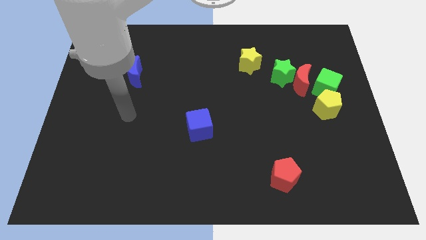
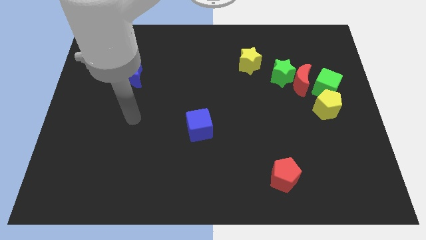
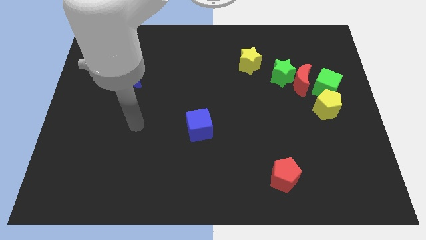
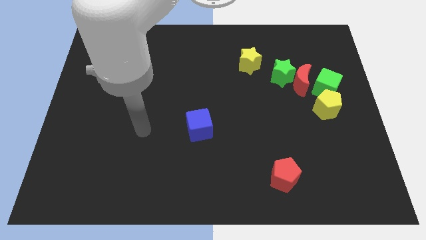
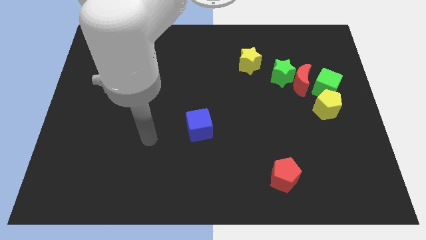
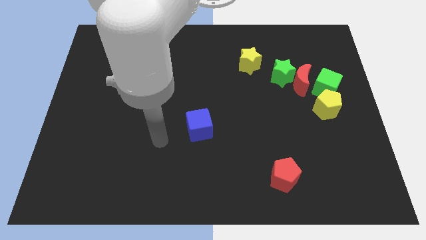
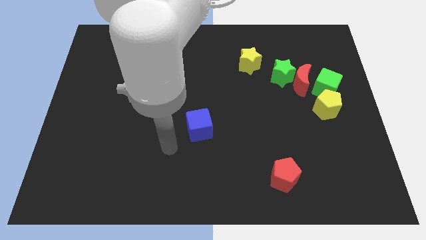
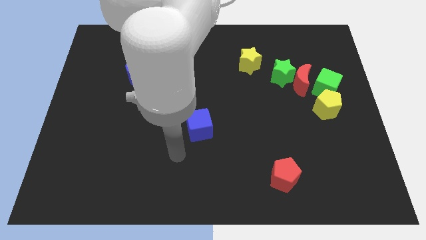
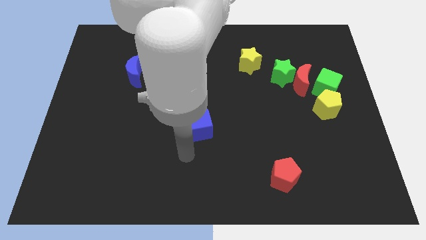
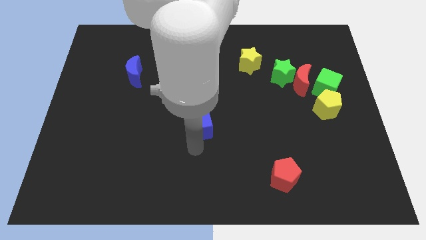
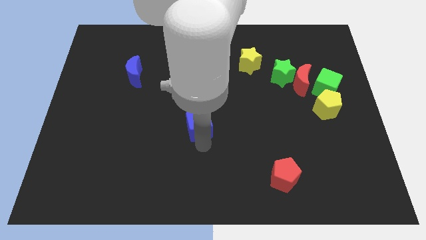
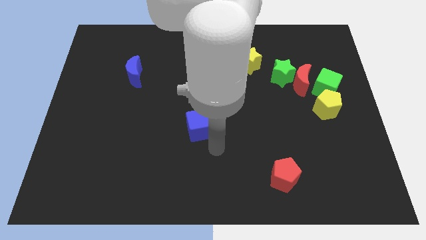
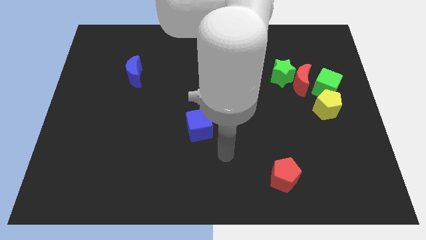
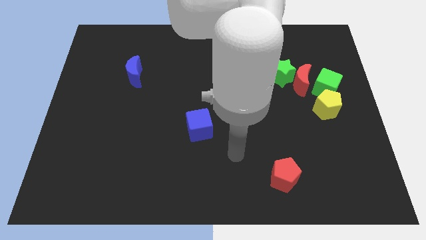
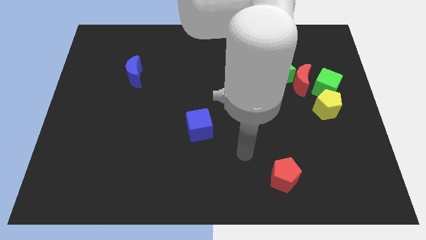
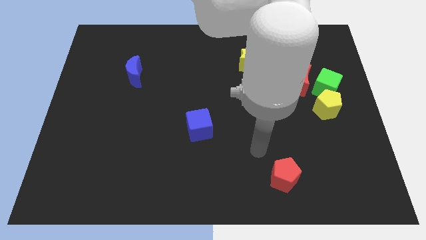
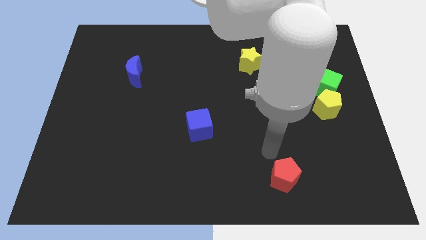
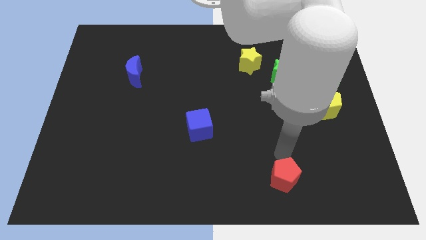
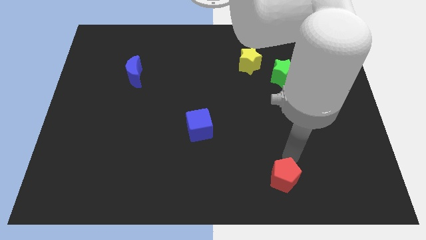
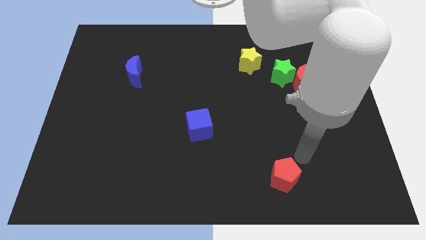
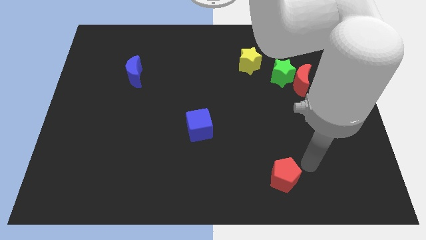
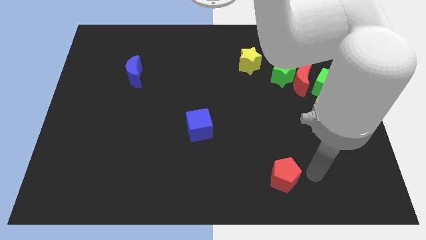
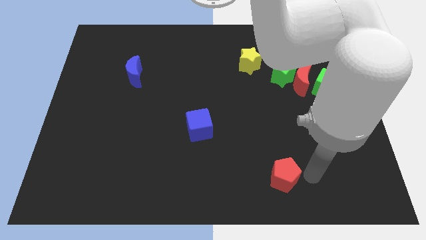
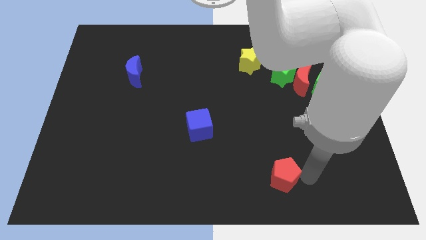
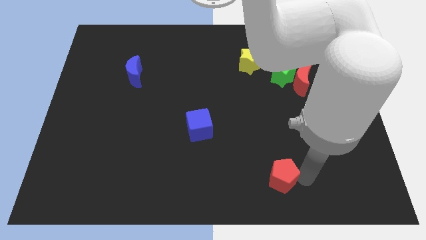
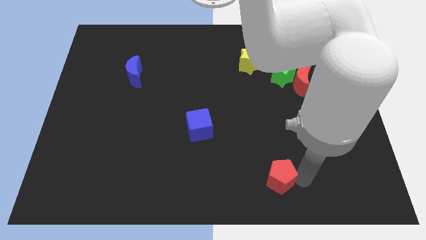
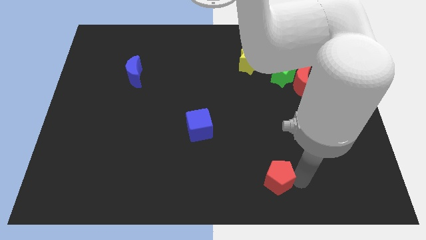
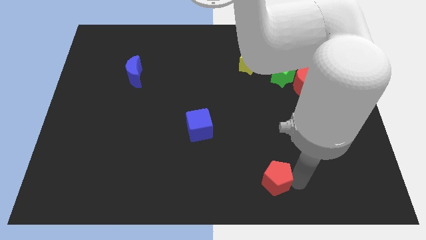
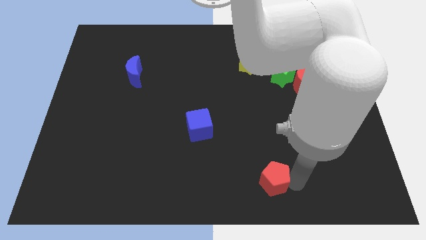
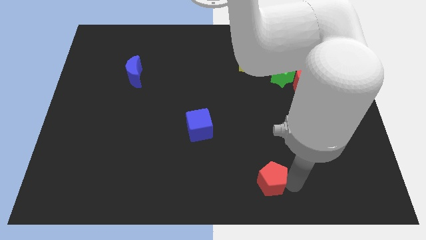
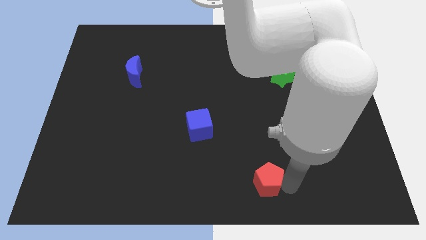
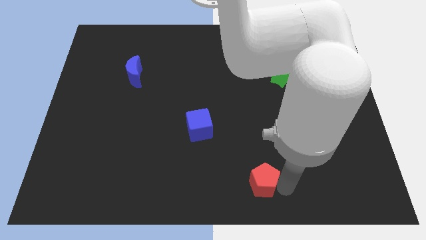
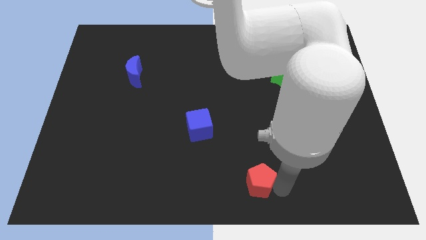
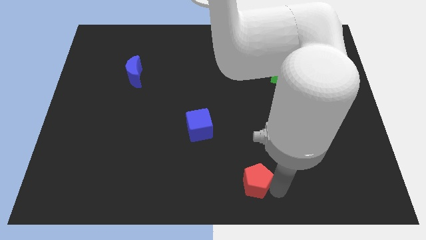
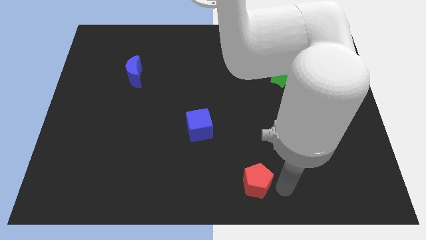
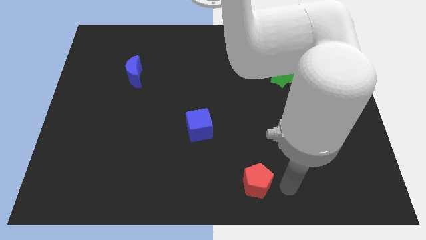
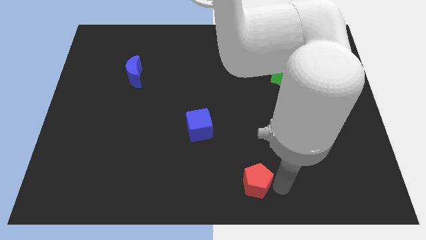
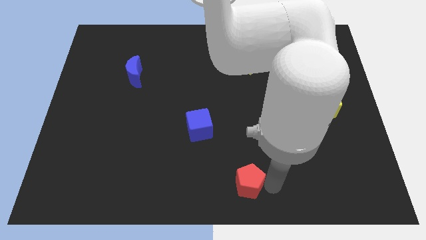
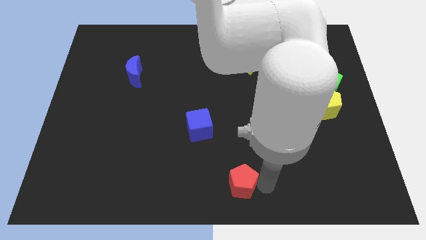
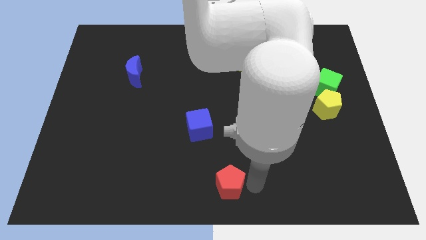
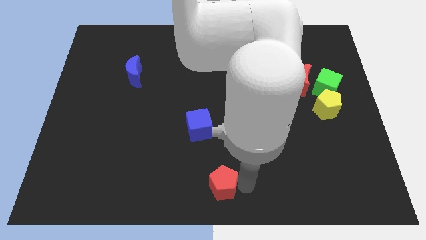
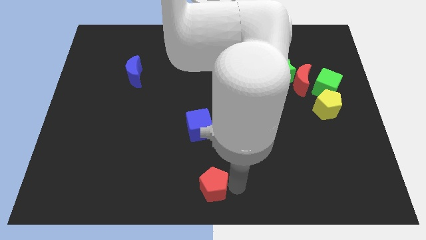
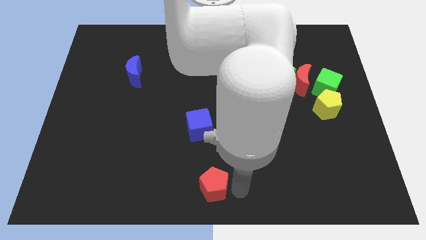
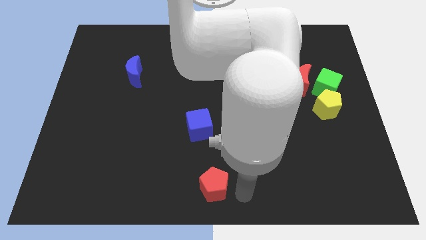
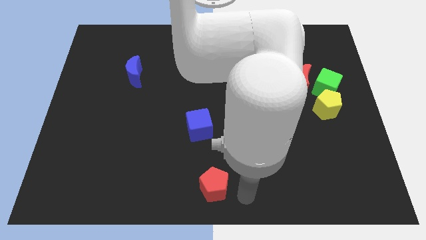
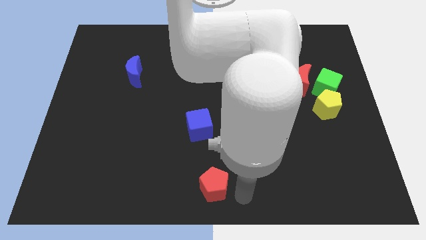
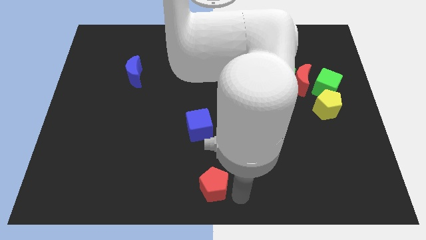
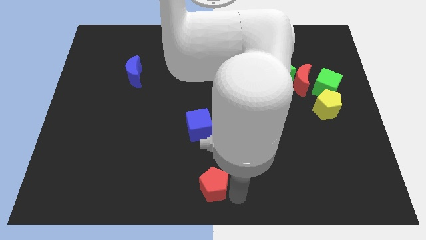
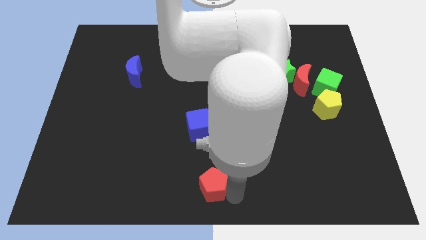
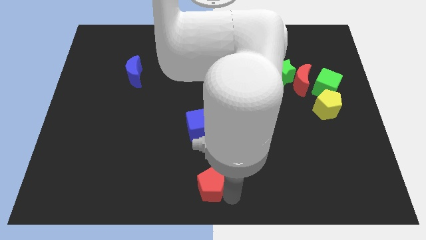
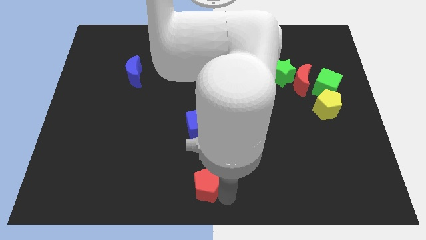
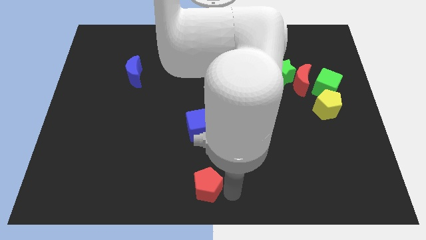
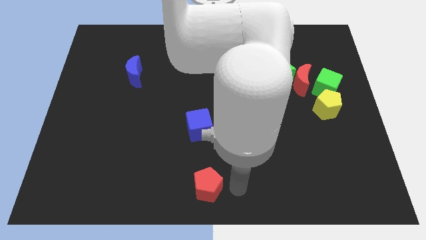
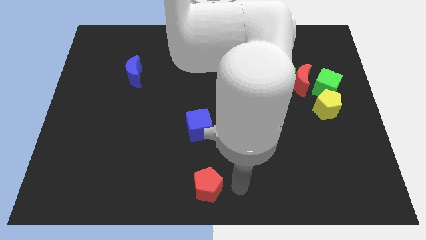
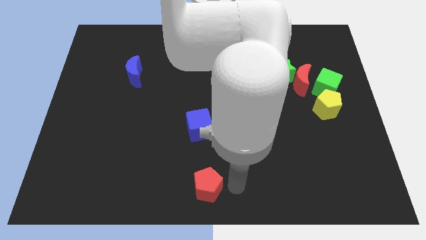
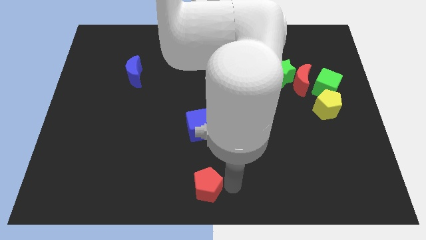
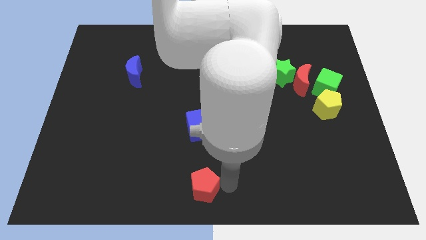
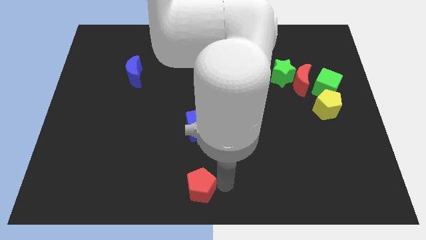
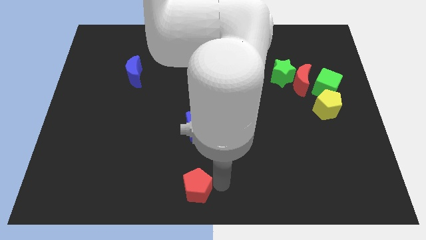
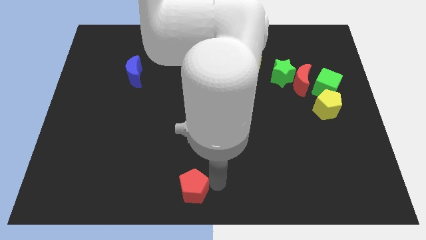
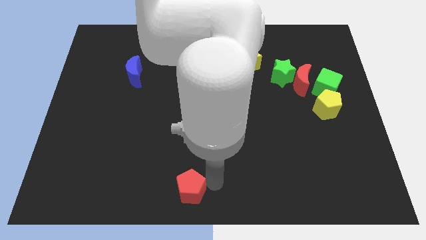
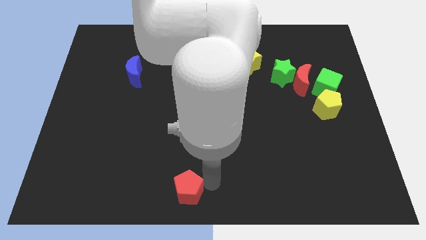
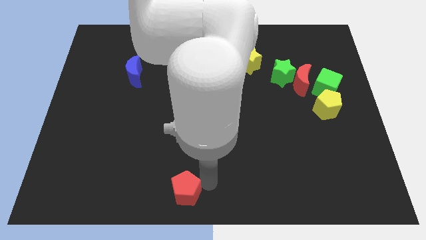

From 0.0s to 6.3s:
push the red pentagon left

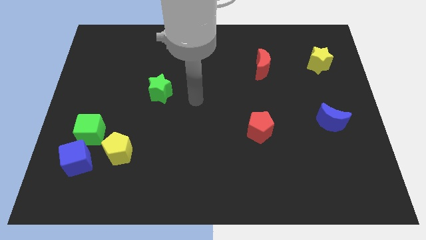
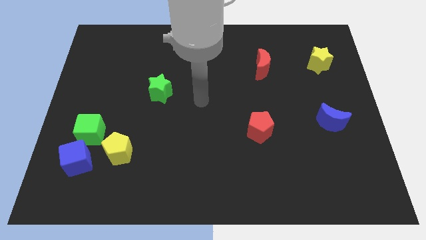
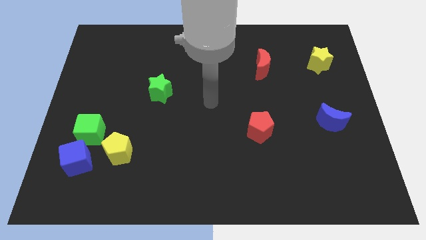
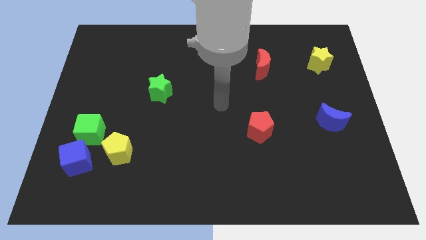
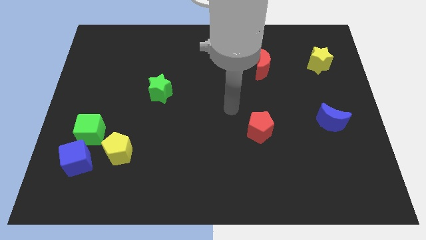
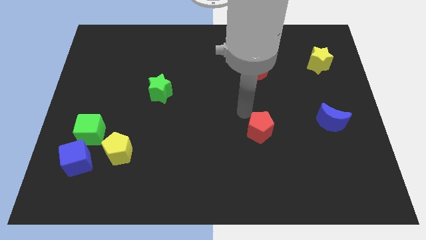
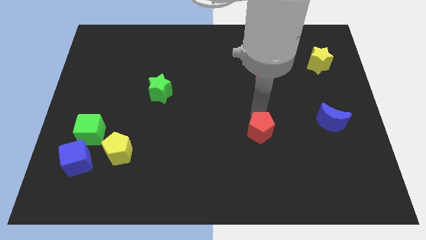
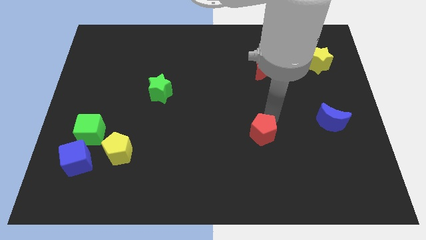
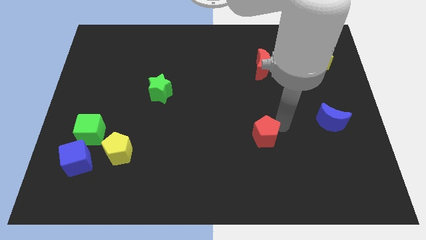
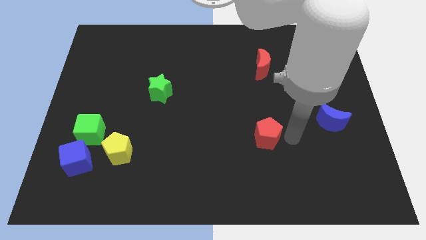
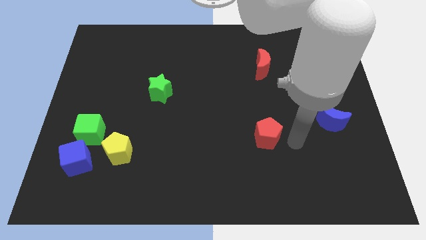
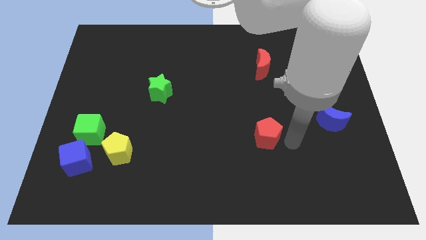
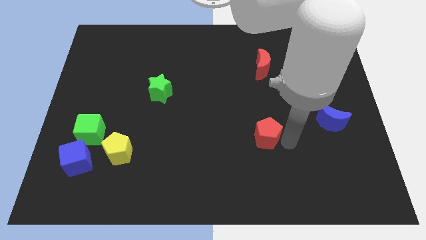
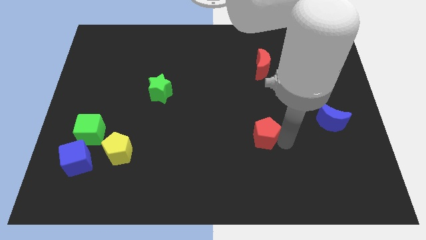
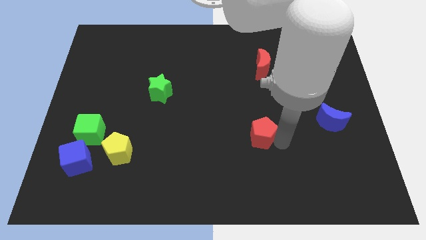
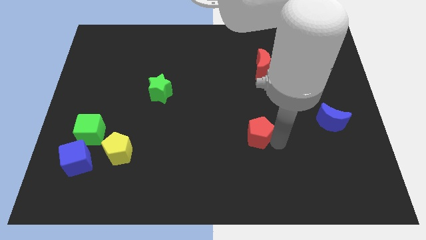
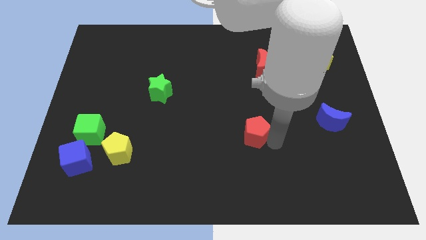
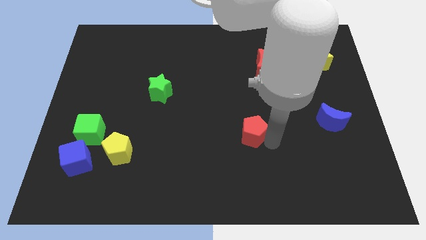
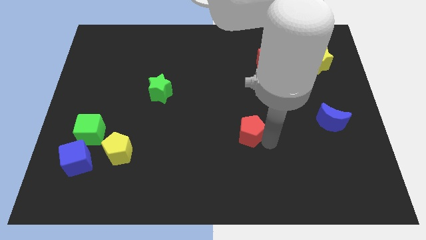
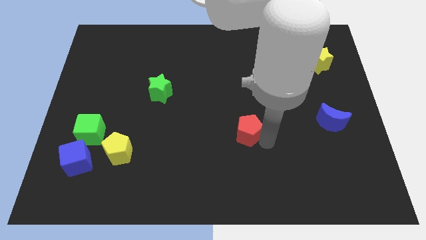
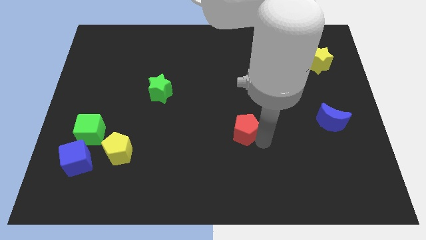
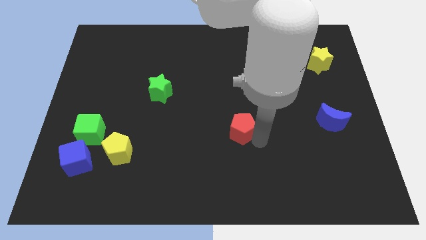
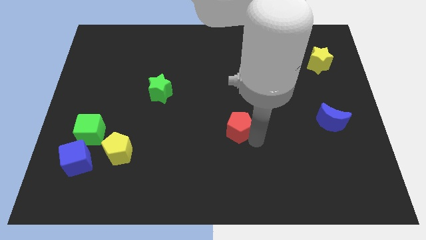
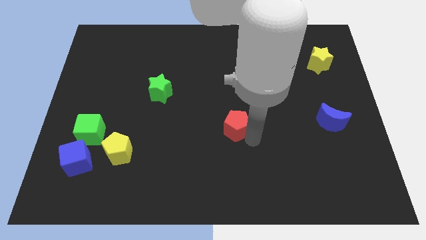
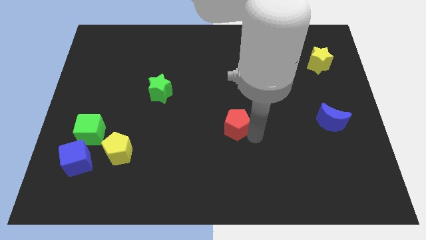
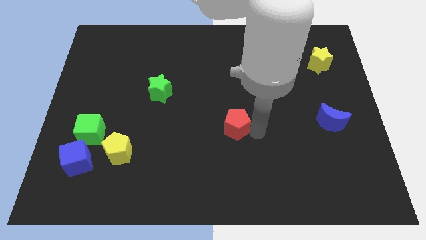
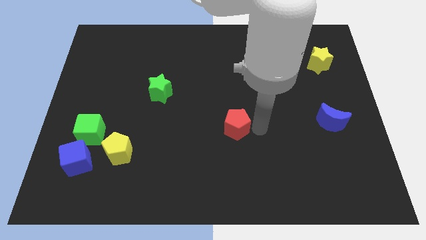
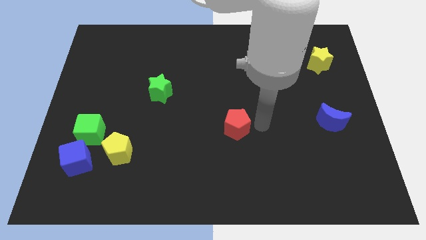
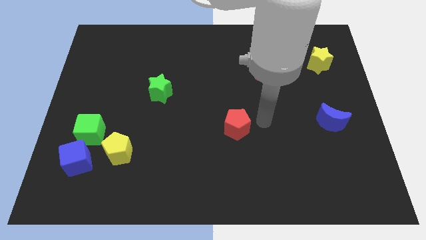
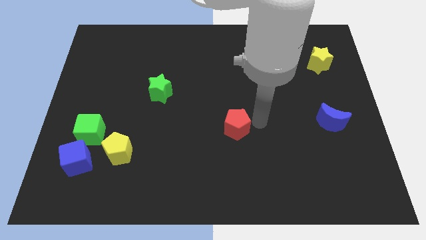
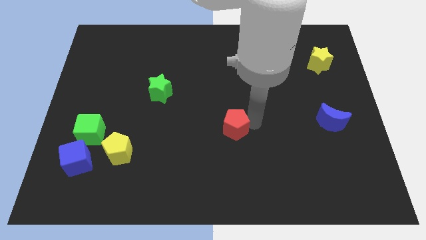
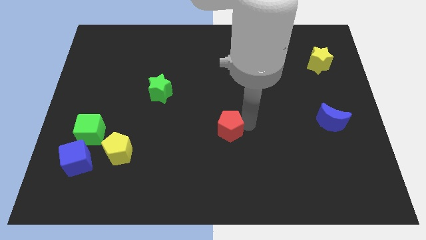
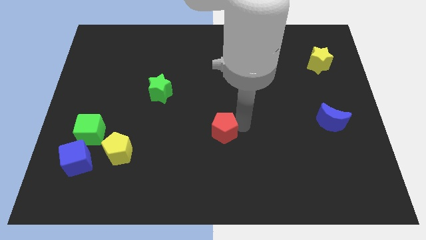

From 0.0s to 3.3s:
slide the red pentagon to the left a little bit
